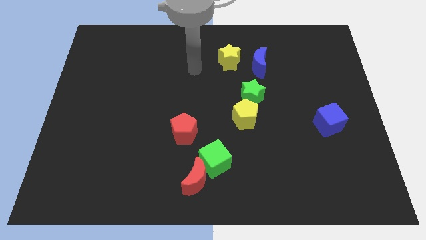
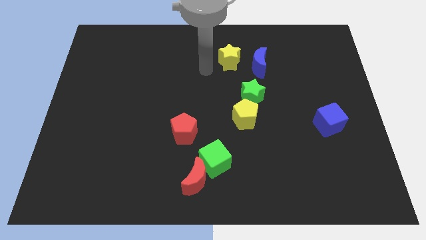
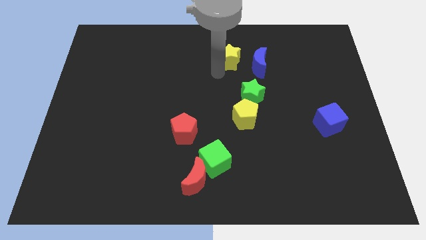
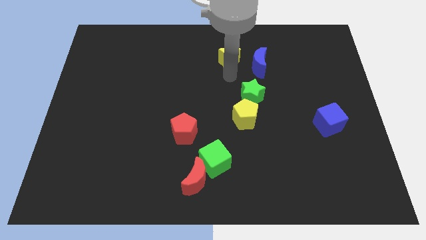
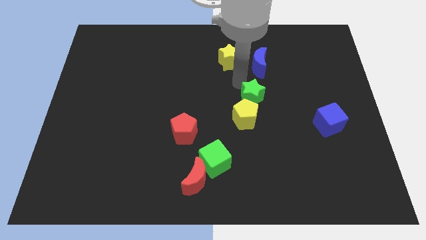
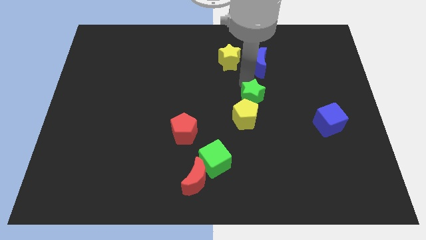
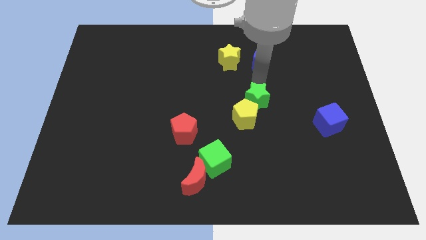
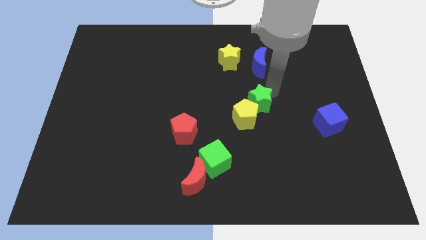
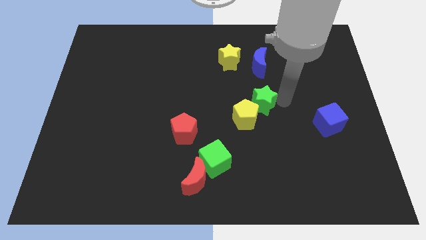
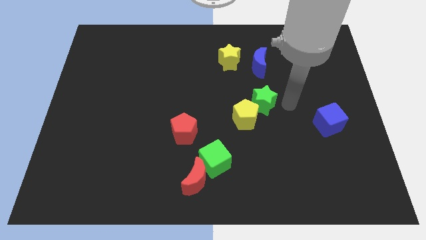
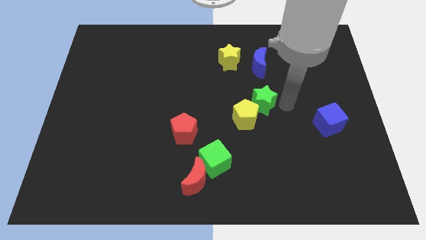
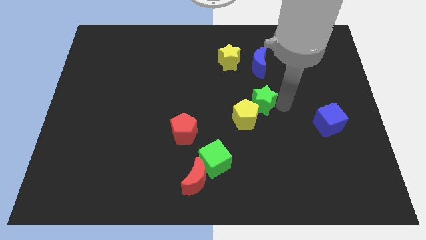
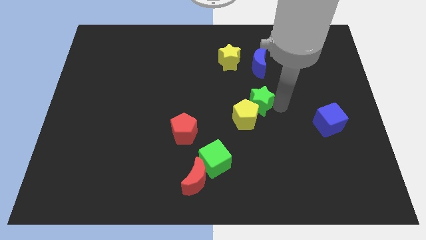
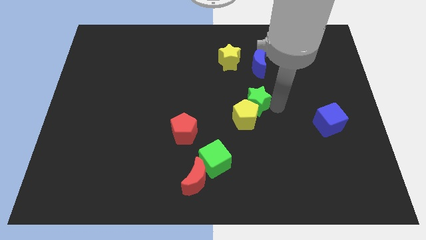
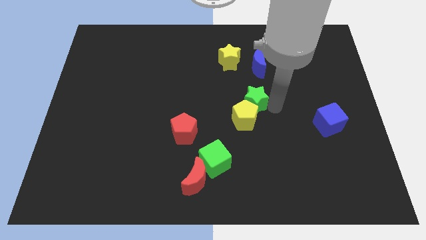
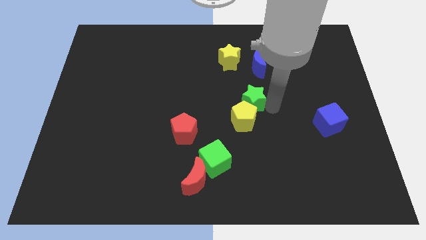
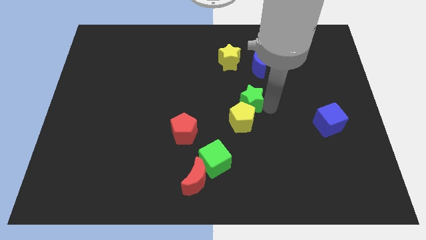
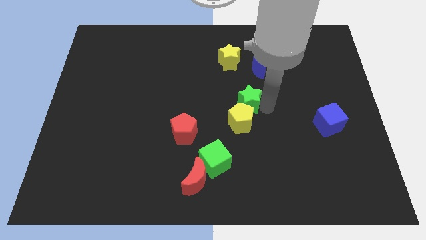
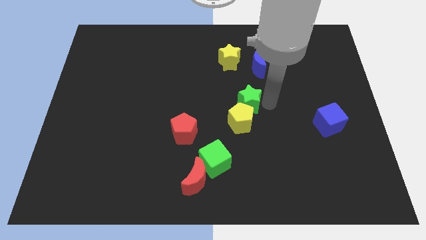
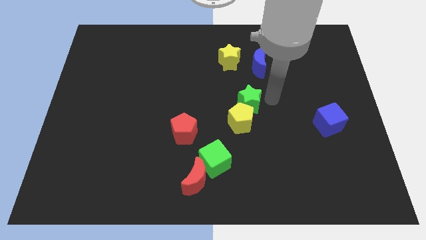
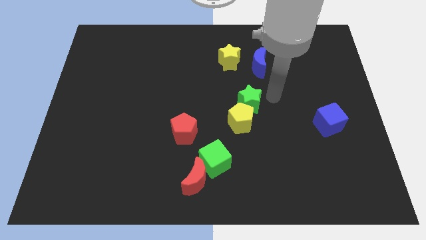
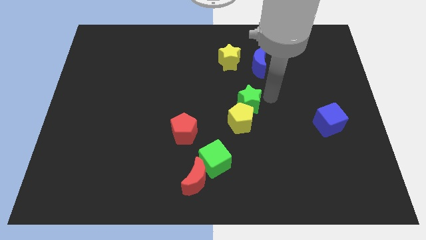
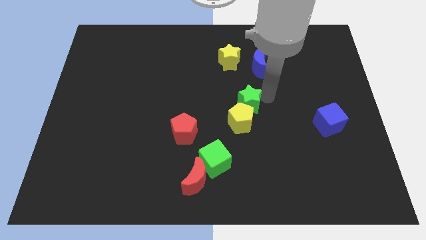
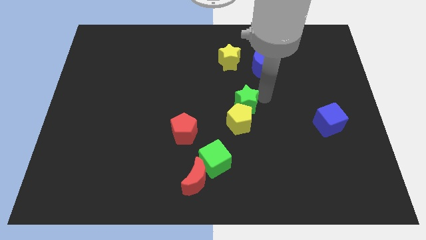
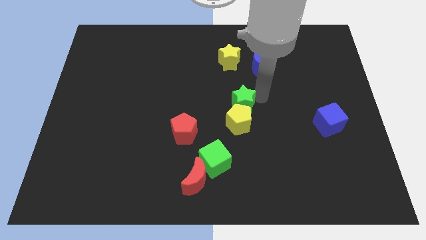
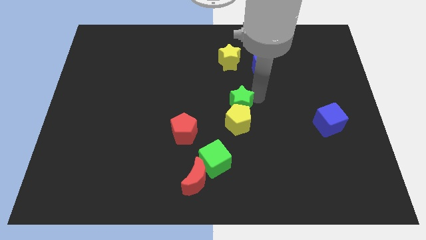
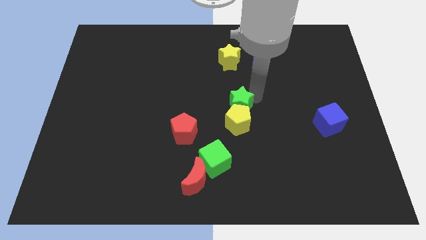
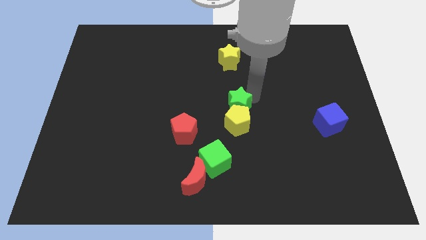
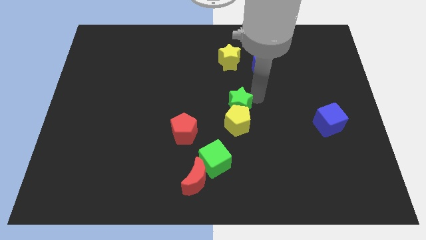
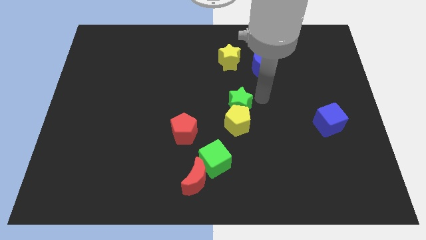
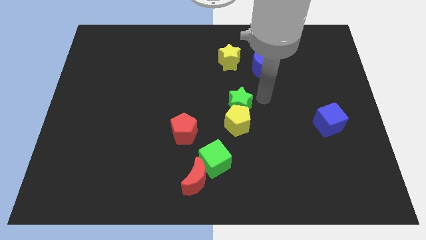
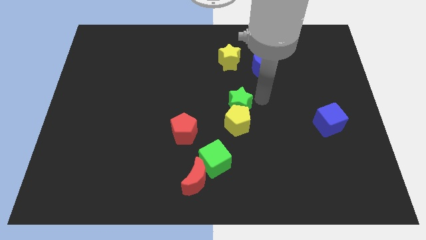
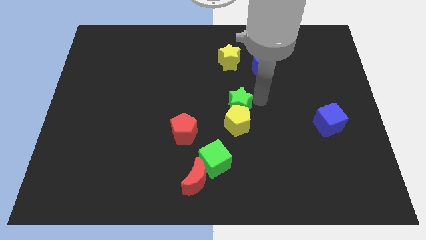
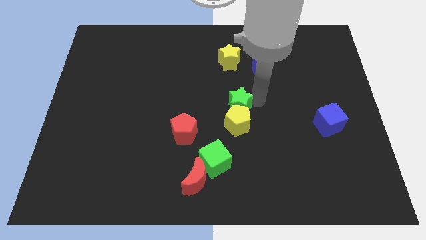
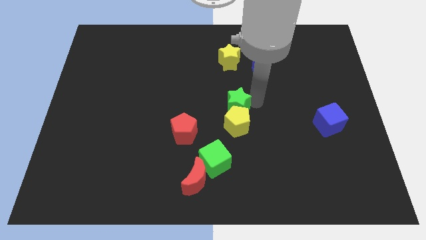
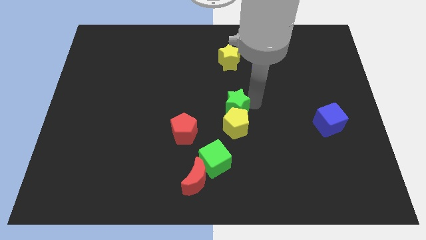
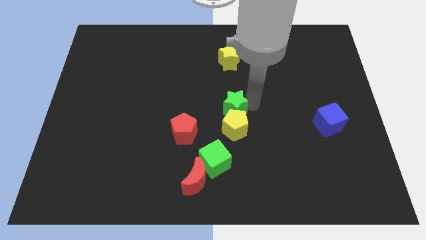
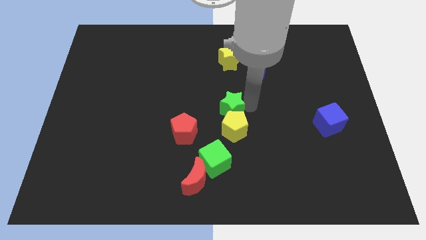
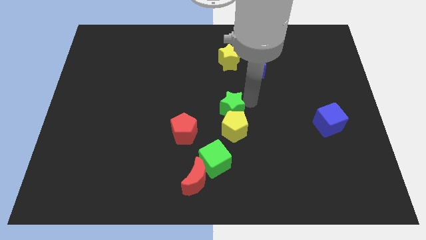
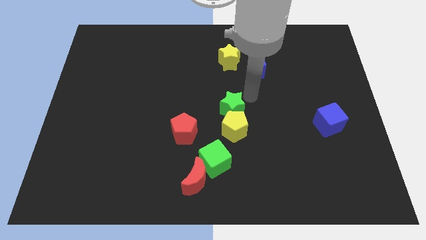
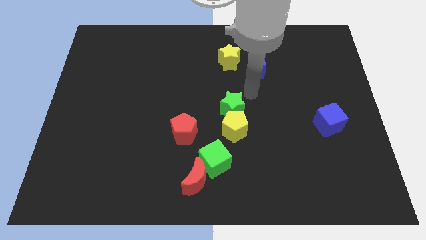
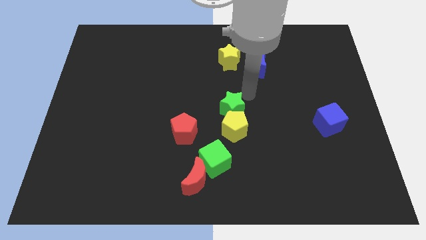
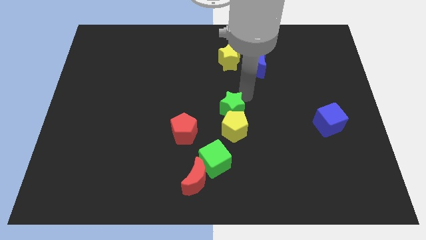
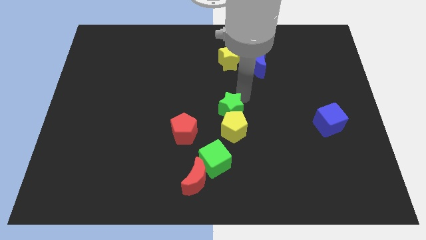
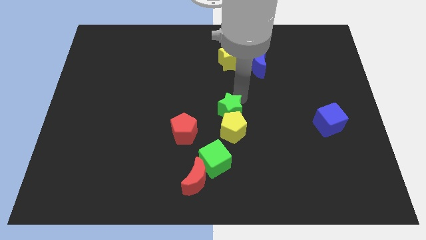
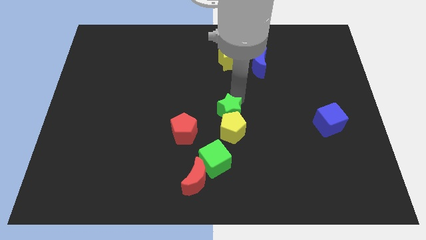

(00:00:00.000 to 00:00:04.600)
slightly move the green star down and to the left

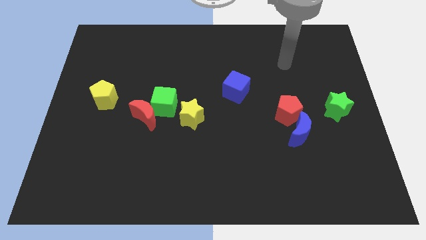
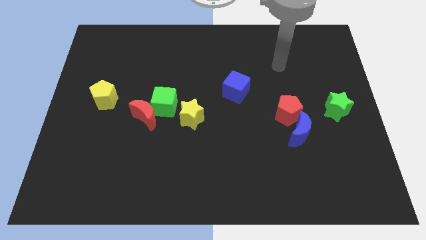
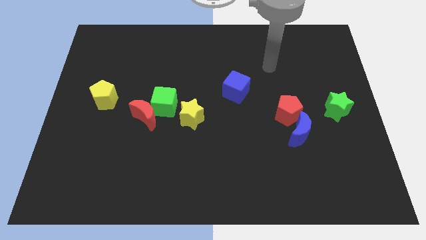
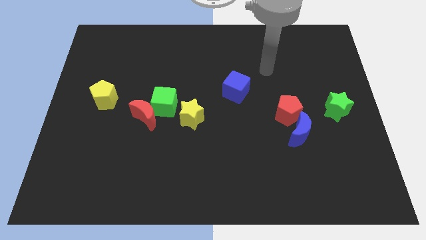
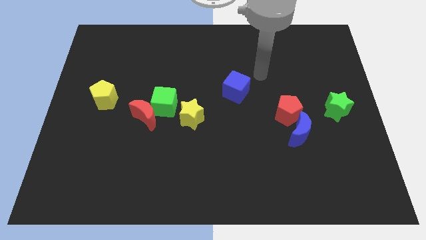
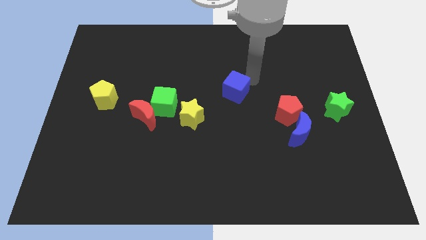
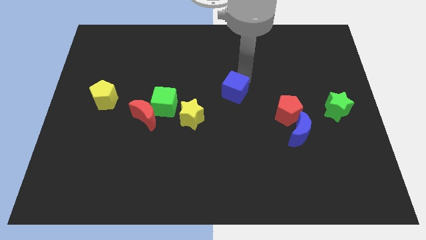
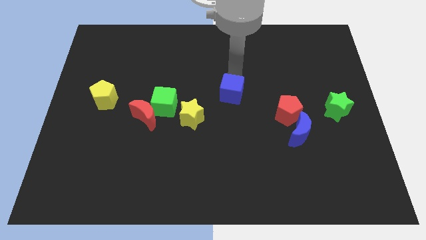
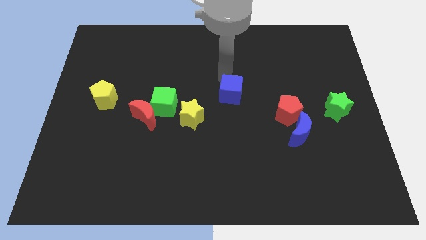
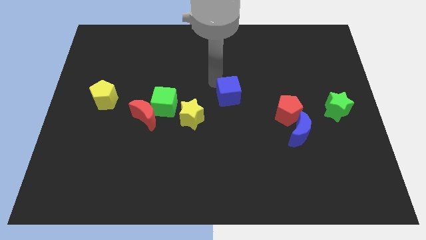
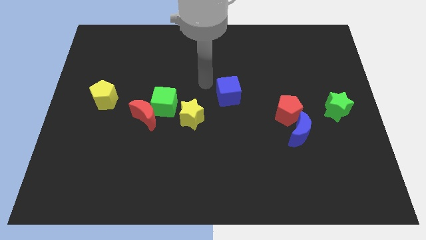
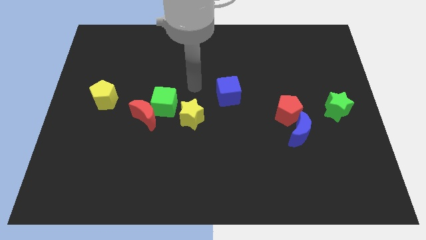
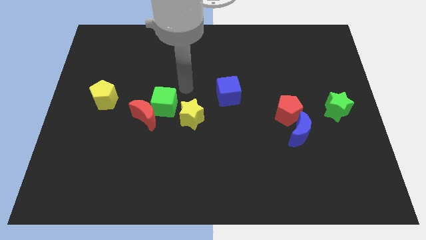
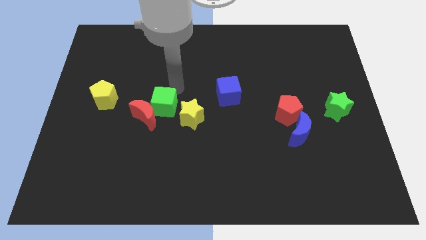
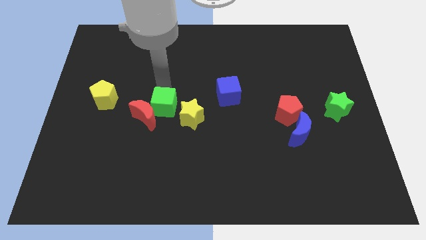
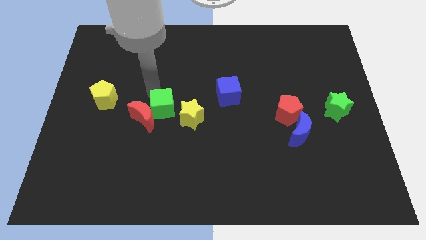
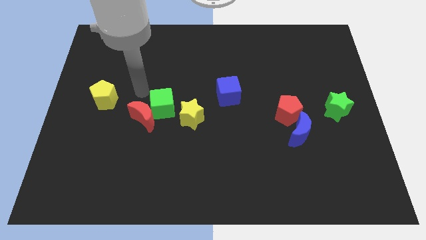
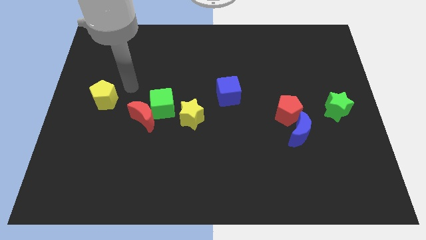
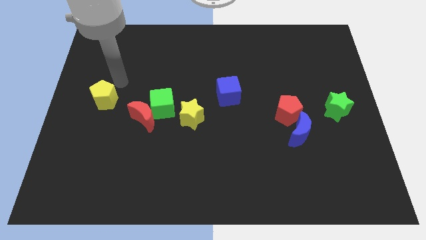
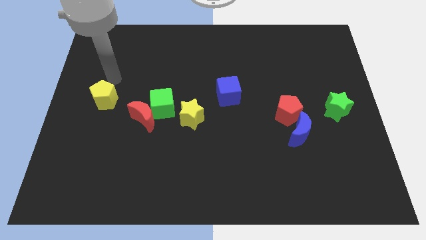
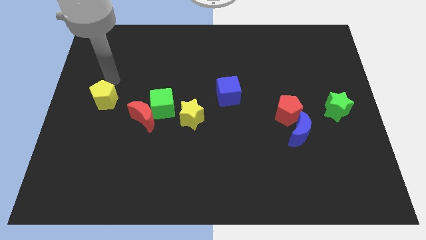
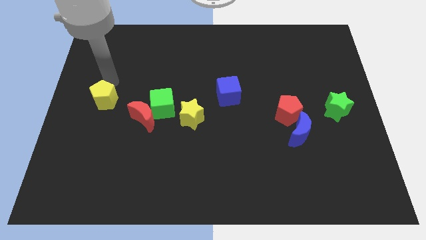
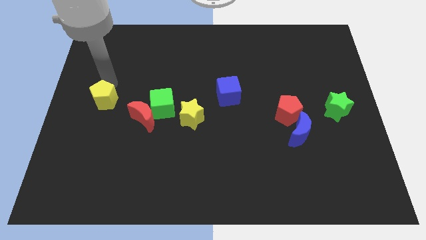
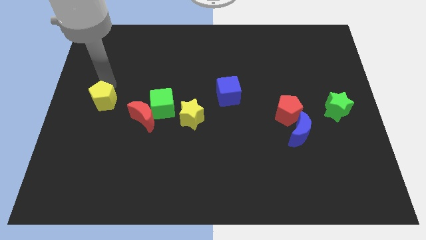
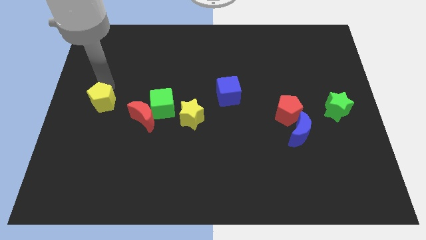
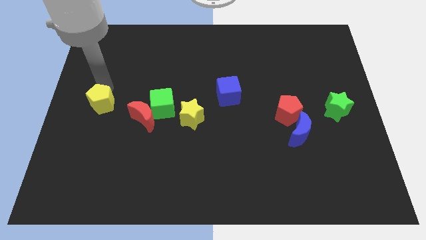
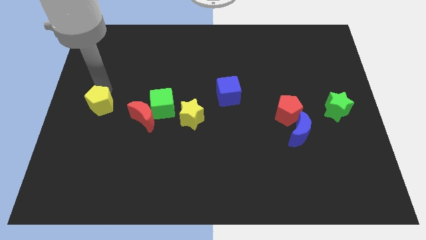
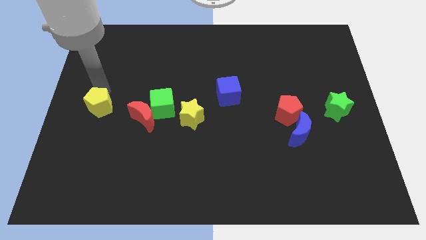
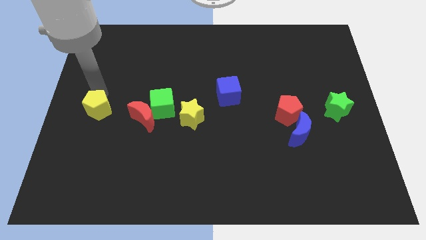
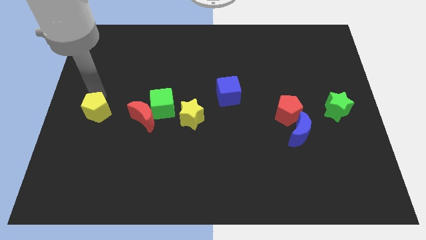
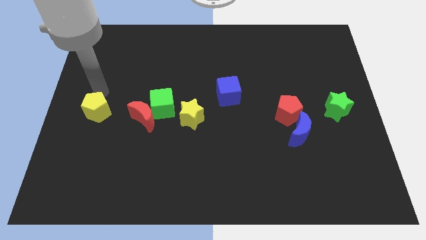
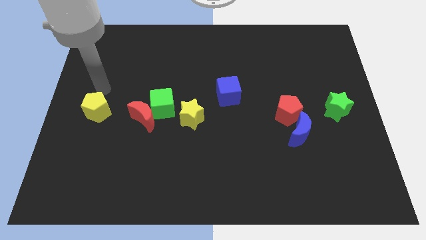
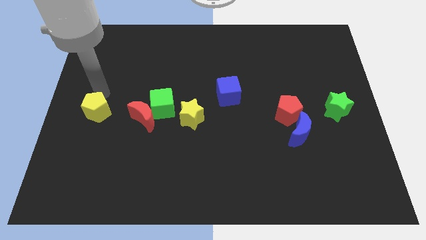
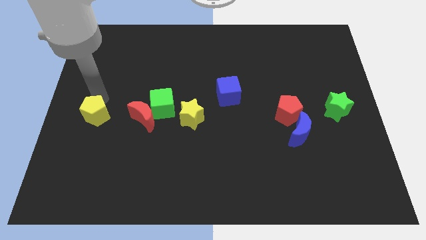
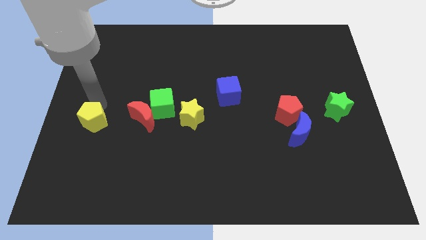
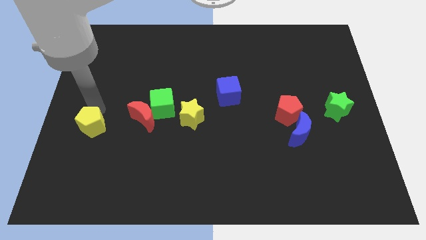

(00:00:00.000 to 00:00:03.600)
push the yellow pentagon a little down
